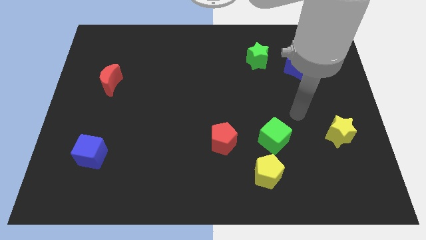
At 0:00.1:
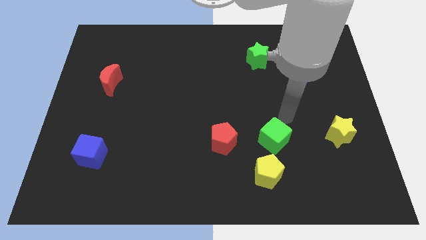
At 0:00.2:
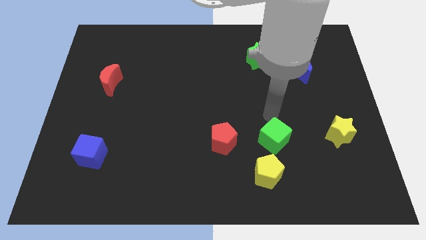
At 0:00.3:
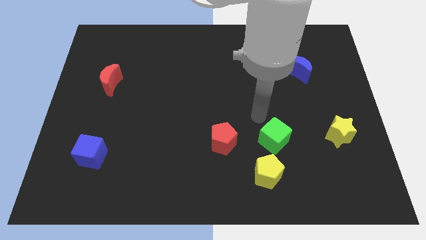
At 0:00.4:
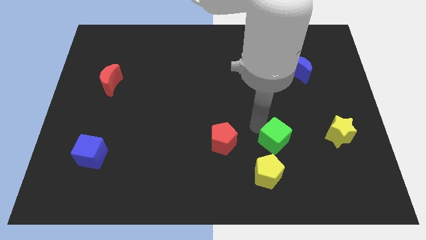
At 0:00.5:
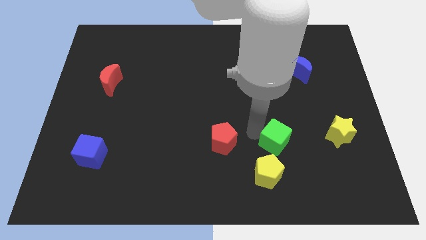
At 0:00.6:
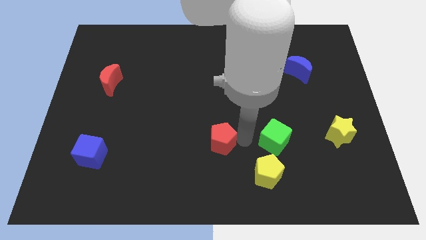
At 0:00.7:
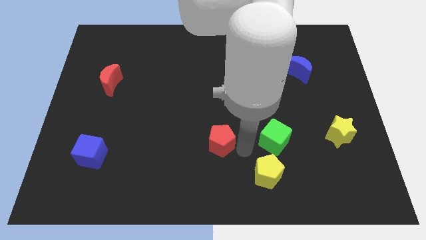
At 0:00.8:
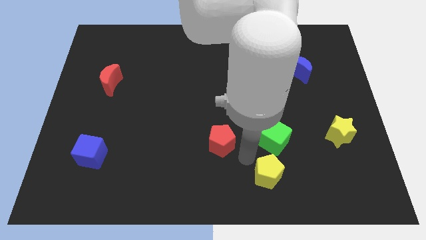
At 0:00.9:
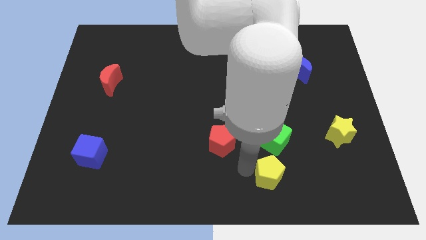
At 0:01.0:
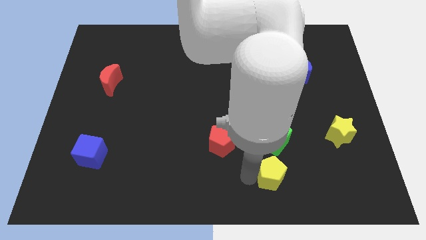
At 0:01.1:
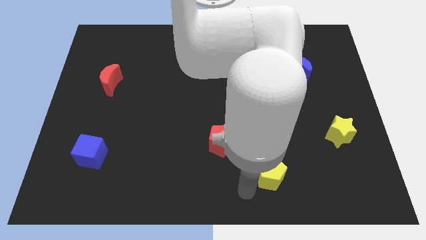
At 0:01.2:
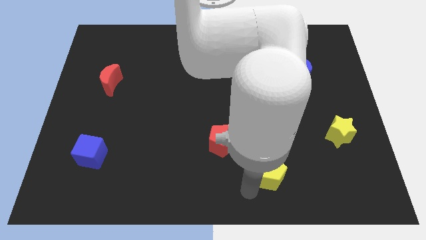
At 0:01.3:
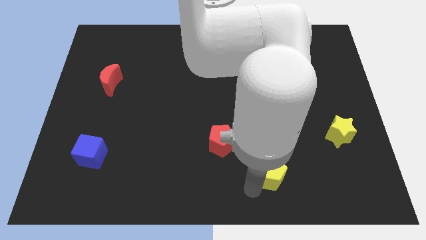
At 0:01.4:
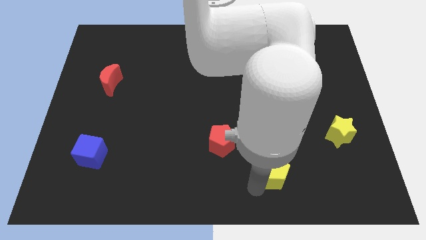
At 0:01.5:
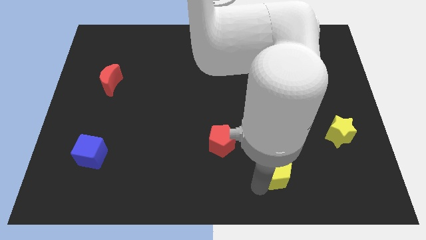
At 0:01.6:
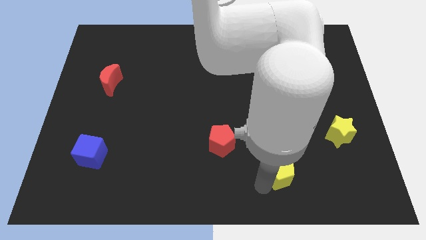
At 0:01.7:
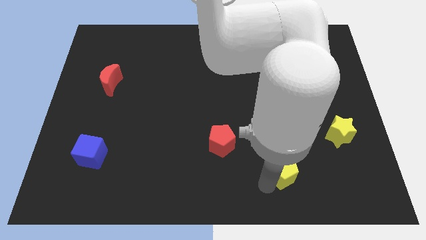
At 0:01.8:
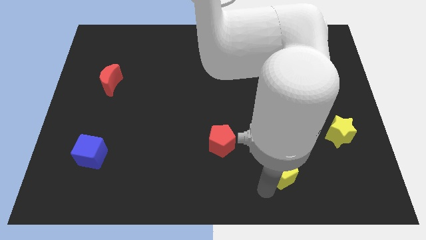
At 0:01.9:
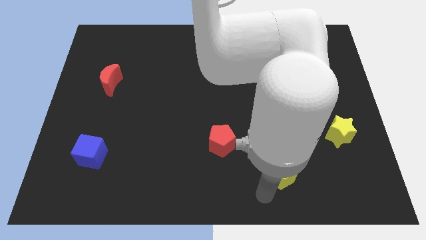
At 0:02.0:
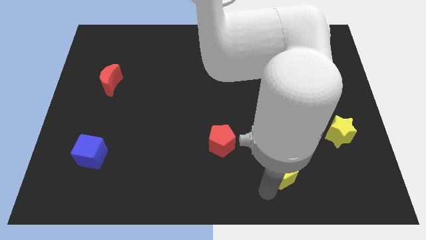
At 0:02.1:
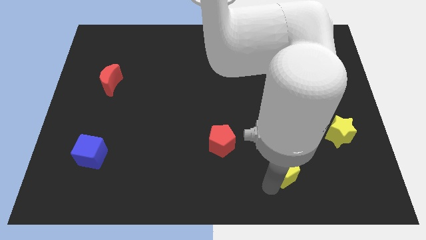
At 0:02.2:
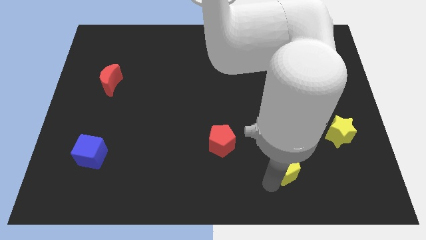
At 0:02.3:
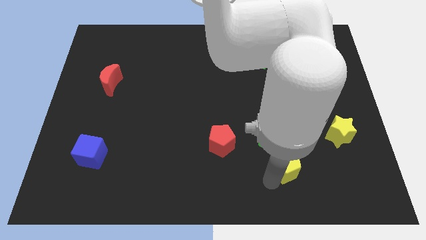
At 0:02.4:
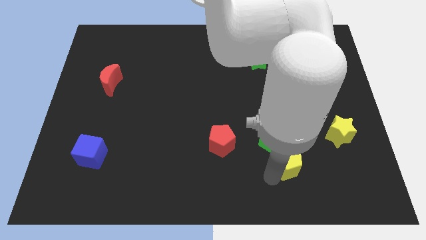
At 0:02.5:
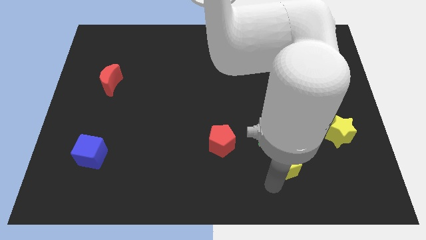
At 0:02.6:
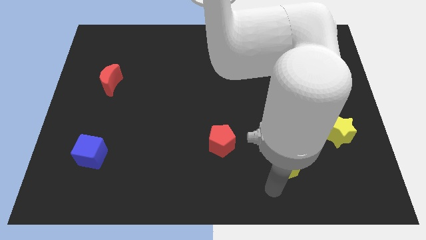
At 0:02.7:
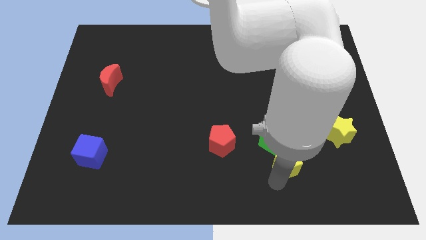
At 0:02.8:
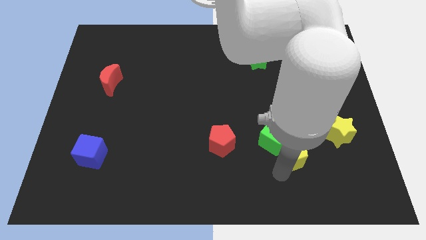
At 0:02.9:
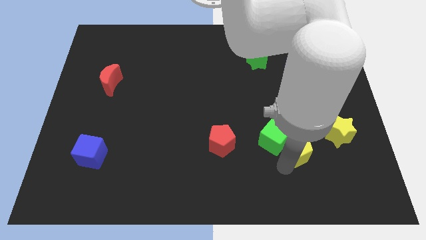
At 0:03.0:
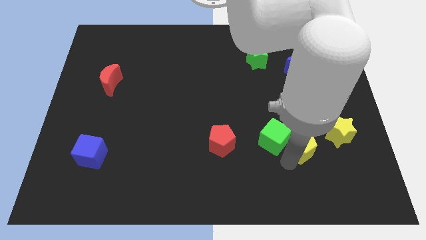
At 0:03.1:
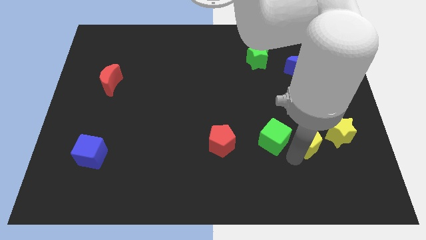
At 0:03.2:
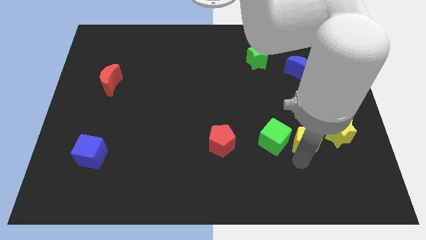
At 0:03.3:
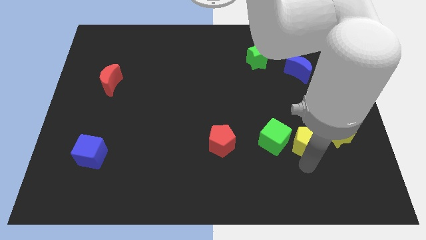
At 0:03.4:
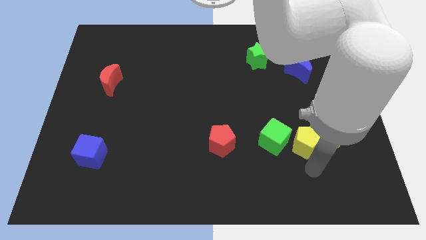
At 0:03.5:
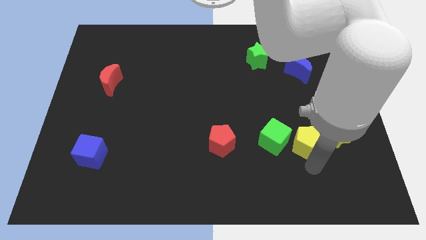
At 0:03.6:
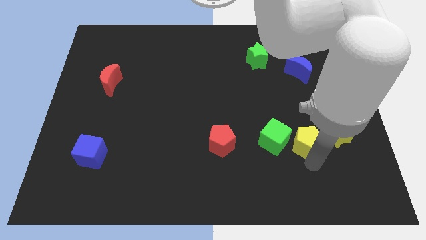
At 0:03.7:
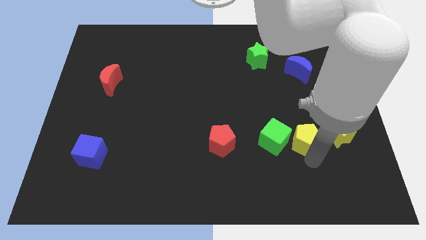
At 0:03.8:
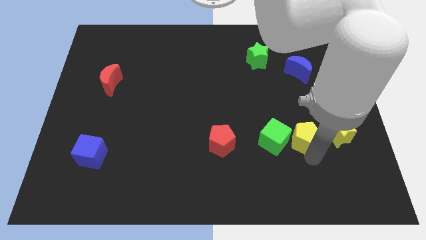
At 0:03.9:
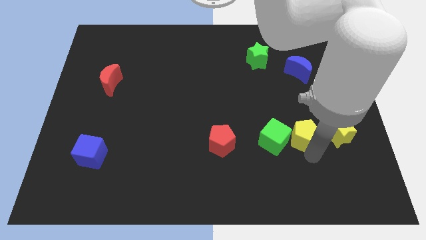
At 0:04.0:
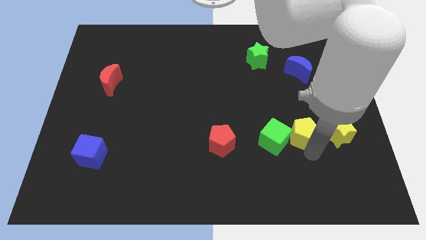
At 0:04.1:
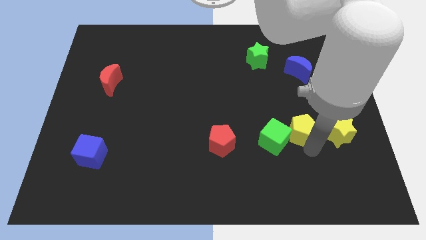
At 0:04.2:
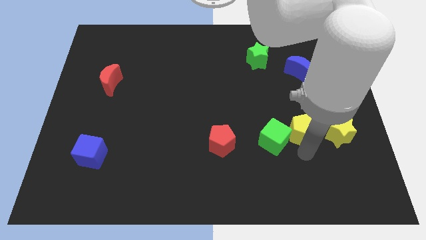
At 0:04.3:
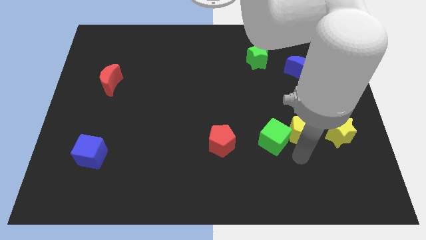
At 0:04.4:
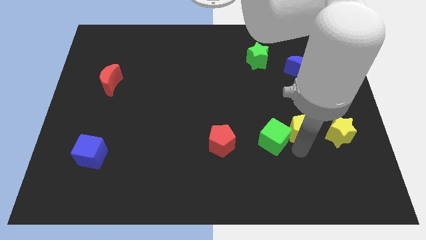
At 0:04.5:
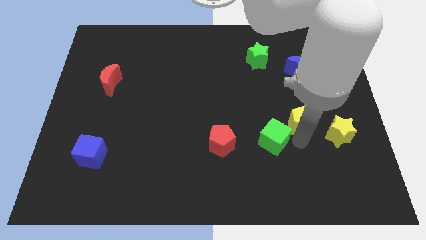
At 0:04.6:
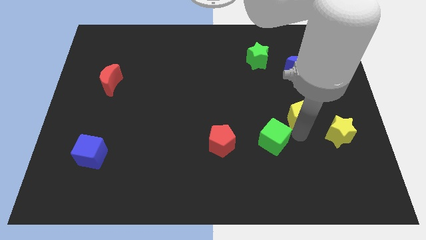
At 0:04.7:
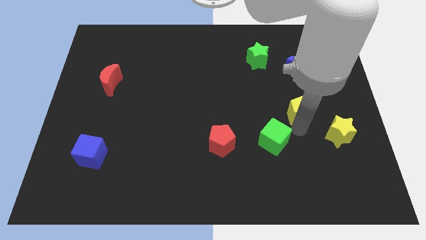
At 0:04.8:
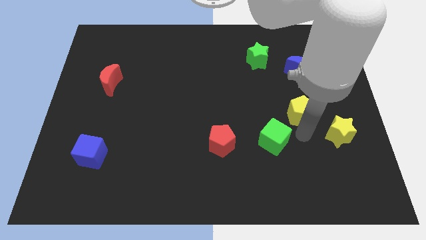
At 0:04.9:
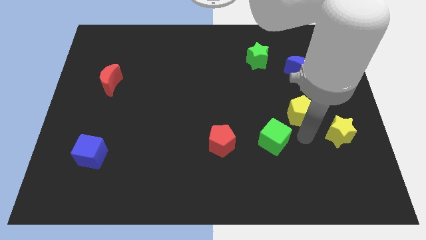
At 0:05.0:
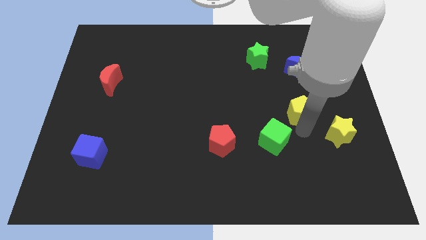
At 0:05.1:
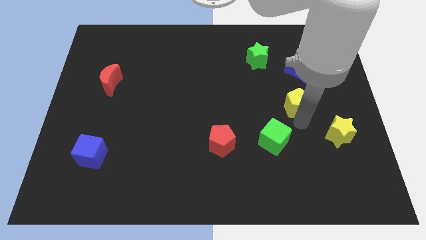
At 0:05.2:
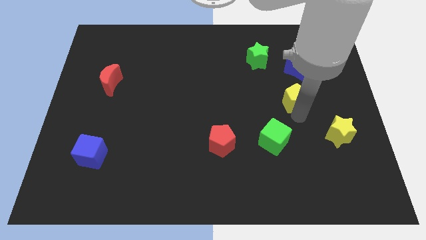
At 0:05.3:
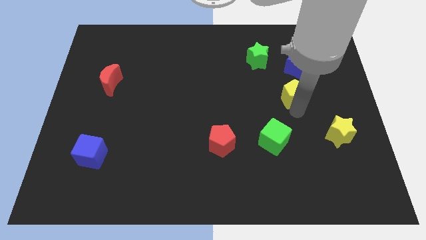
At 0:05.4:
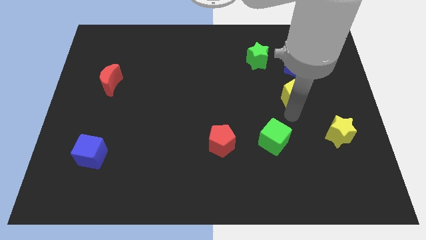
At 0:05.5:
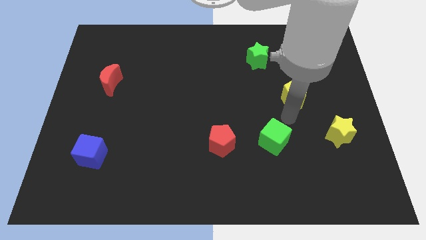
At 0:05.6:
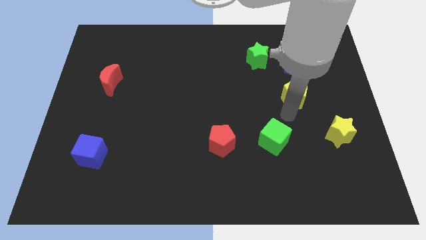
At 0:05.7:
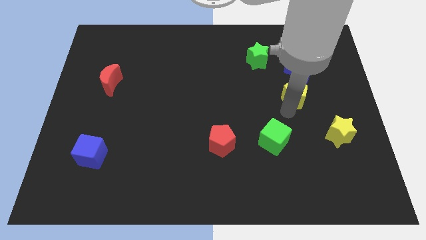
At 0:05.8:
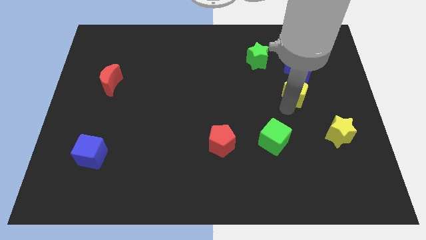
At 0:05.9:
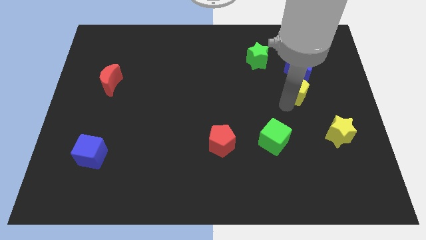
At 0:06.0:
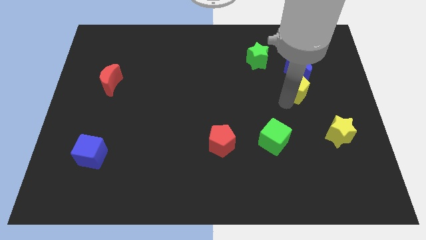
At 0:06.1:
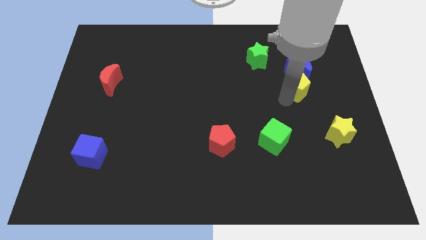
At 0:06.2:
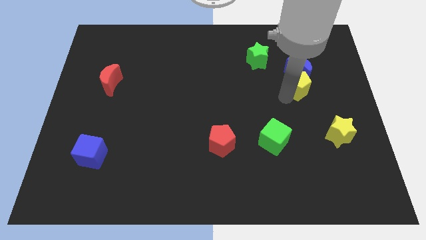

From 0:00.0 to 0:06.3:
slide the yellow pentagon close to the blue moon

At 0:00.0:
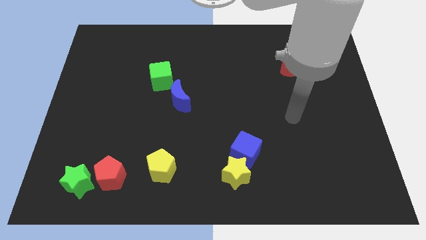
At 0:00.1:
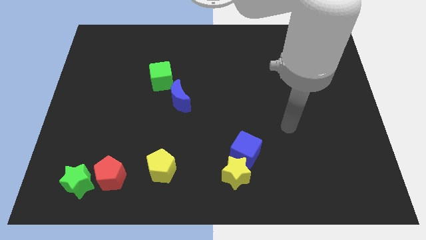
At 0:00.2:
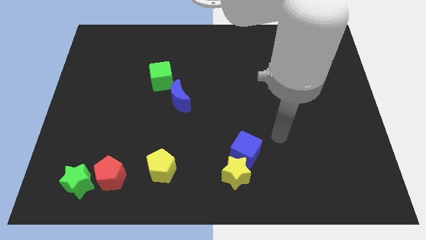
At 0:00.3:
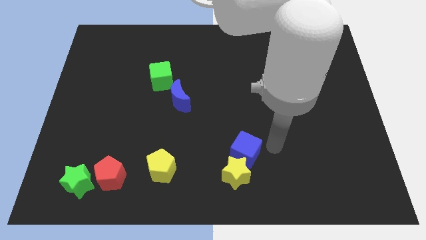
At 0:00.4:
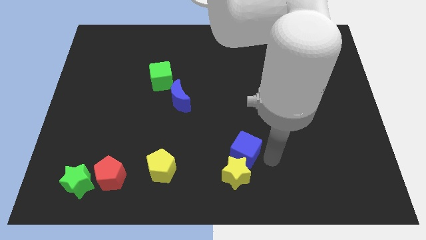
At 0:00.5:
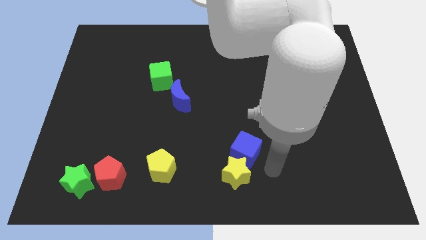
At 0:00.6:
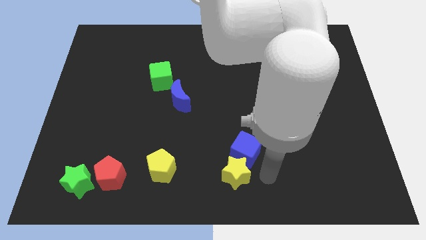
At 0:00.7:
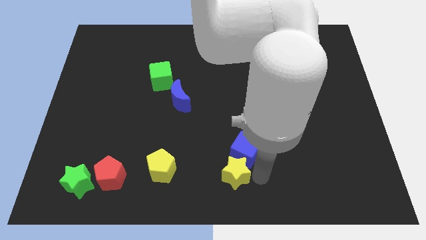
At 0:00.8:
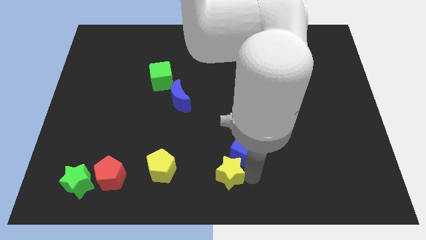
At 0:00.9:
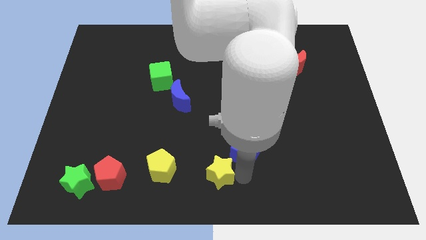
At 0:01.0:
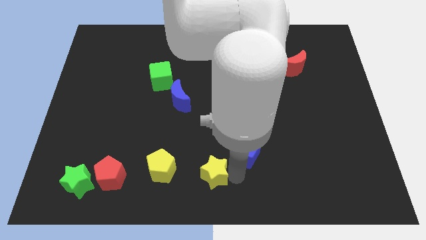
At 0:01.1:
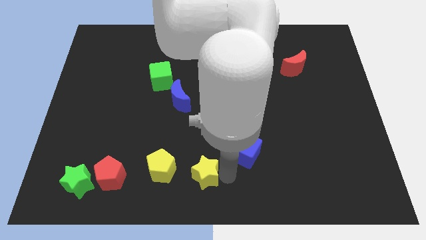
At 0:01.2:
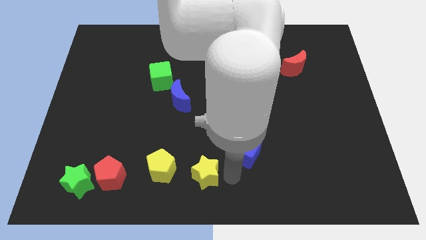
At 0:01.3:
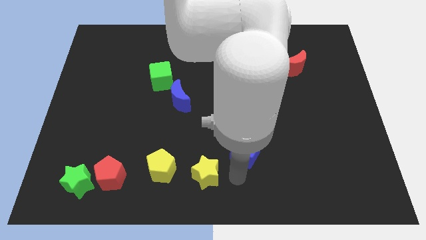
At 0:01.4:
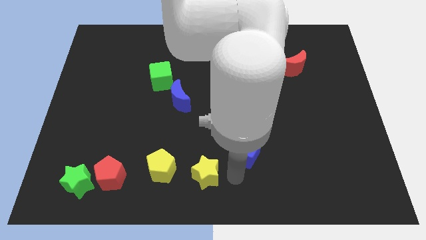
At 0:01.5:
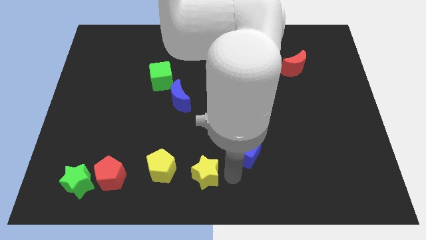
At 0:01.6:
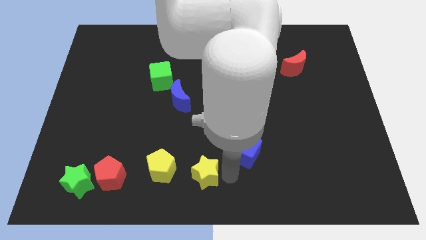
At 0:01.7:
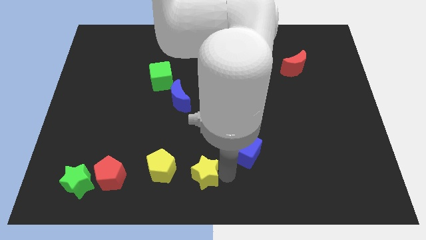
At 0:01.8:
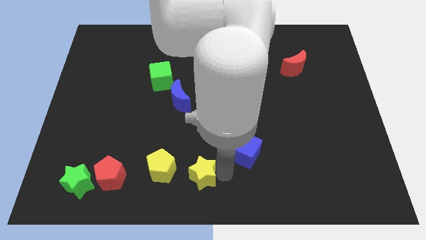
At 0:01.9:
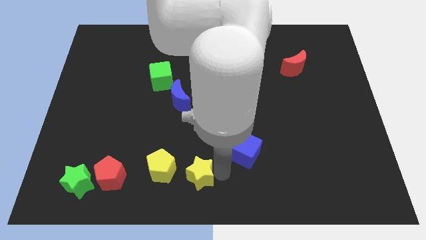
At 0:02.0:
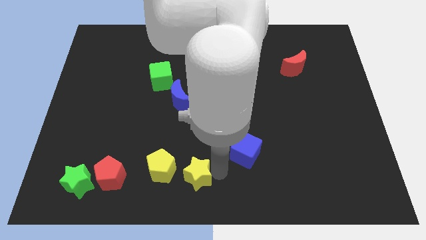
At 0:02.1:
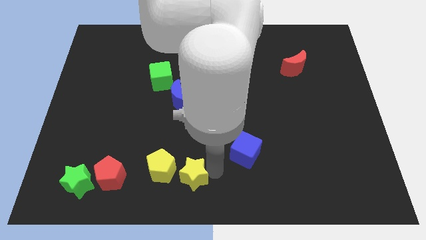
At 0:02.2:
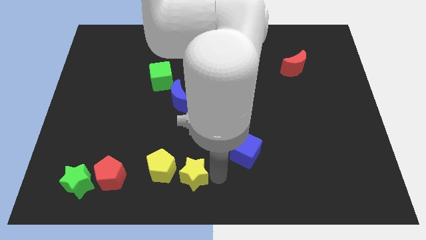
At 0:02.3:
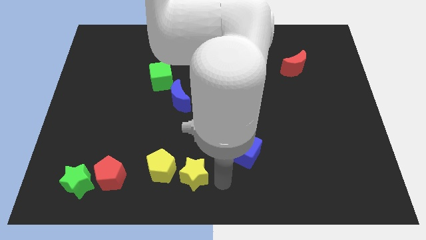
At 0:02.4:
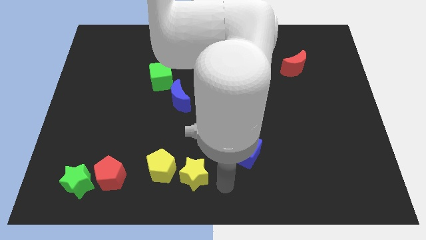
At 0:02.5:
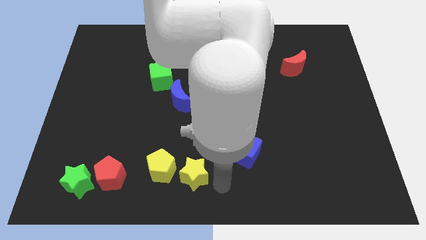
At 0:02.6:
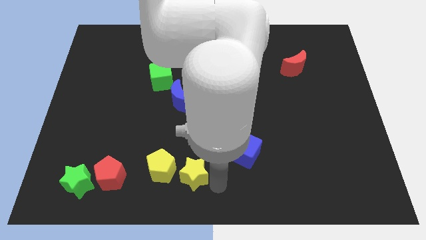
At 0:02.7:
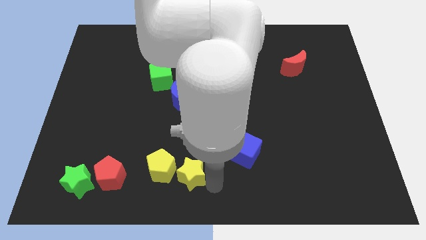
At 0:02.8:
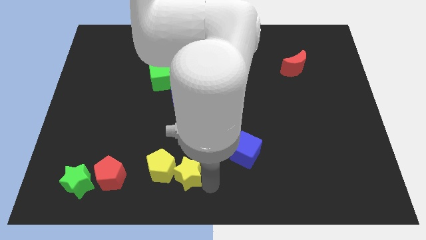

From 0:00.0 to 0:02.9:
put the yellow star towards the yellow pentagon
